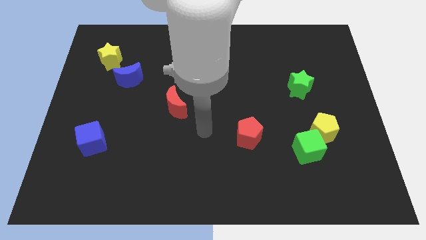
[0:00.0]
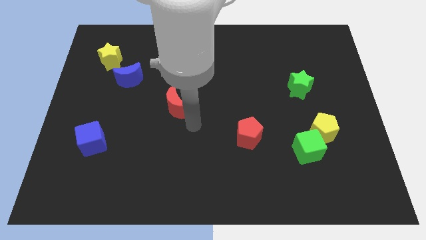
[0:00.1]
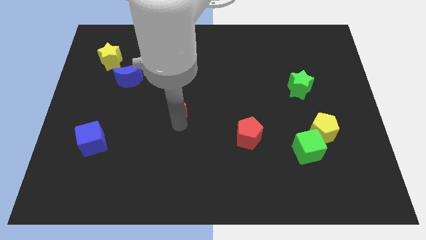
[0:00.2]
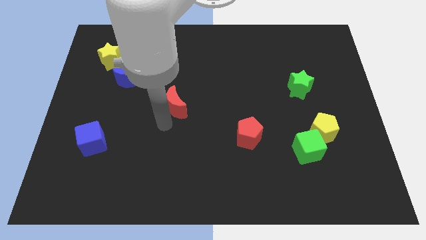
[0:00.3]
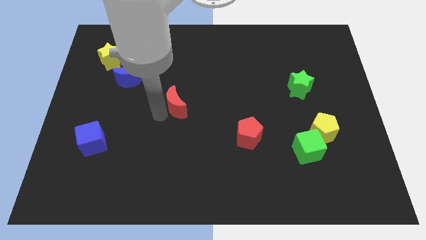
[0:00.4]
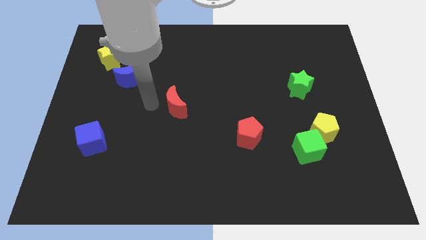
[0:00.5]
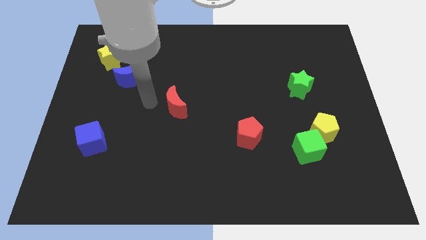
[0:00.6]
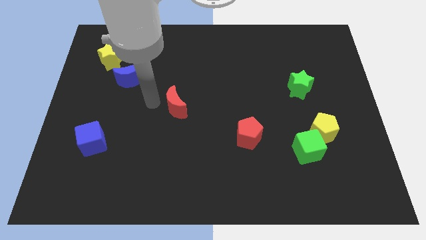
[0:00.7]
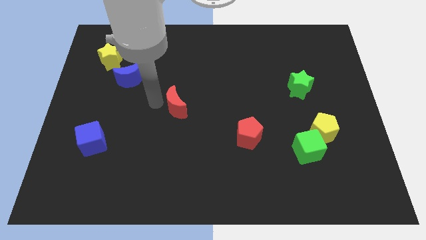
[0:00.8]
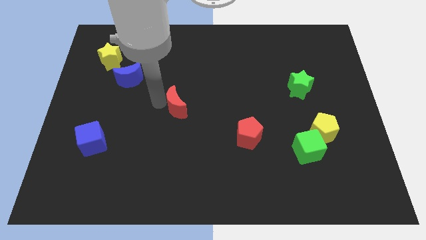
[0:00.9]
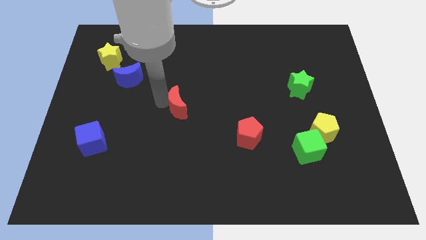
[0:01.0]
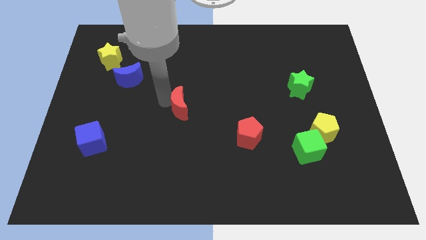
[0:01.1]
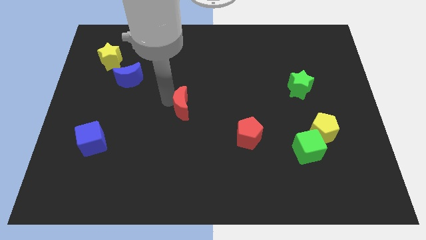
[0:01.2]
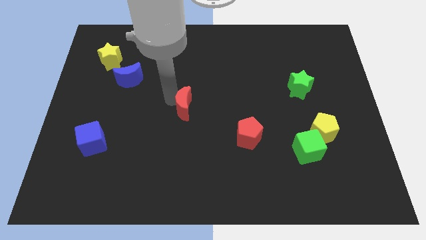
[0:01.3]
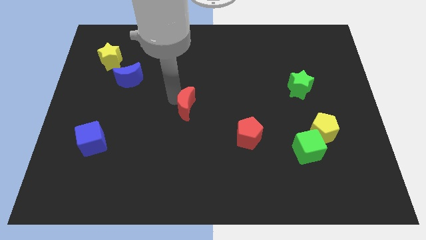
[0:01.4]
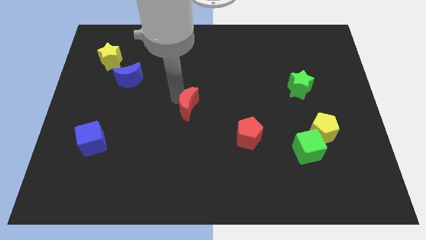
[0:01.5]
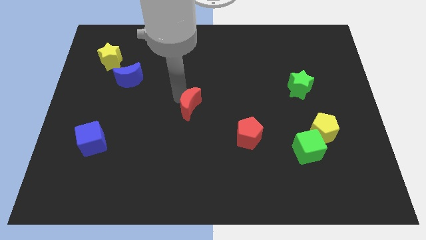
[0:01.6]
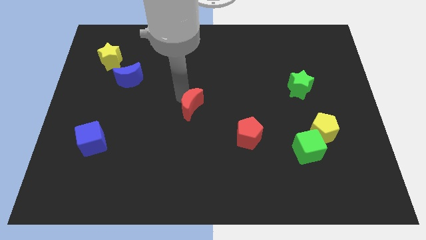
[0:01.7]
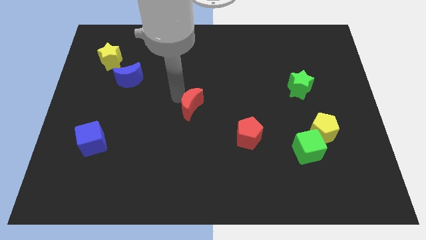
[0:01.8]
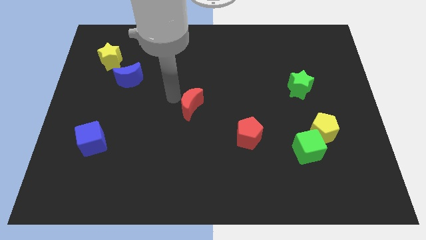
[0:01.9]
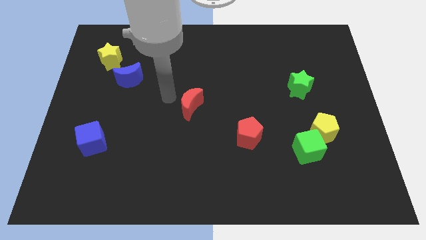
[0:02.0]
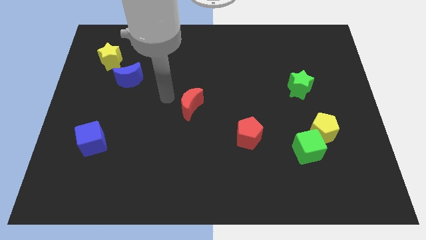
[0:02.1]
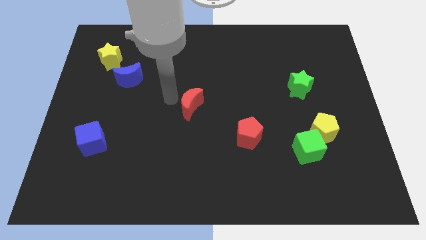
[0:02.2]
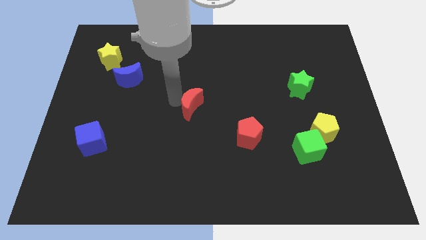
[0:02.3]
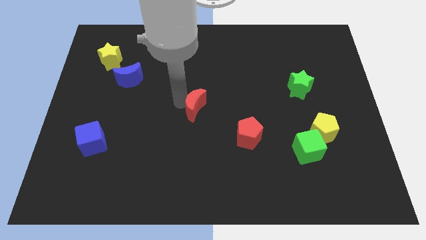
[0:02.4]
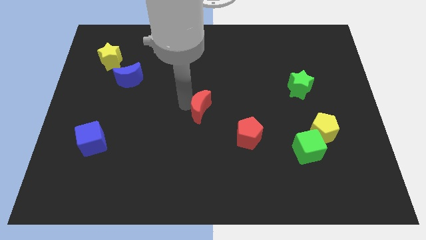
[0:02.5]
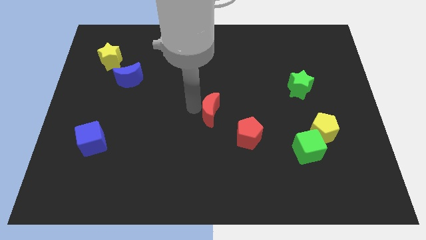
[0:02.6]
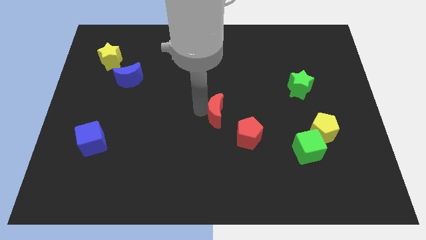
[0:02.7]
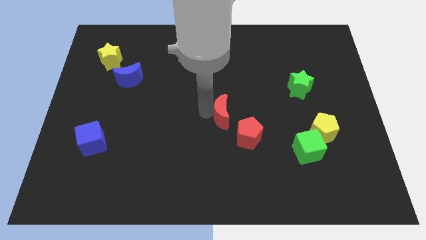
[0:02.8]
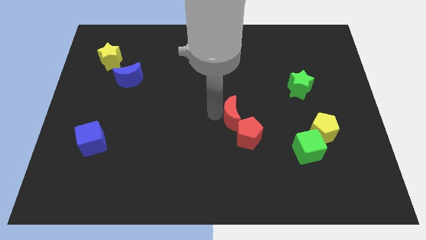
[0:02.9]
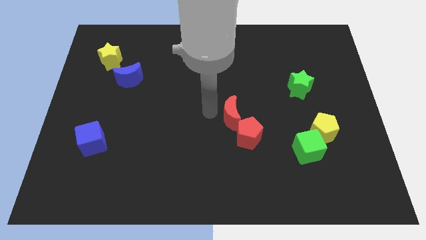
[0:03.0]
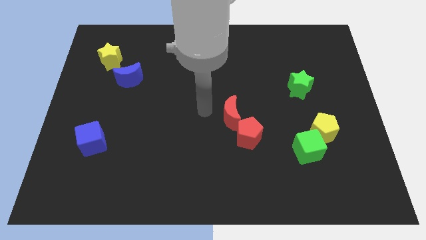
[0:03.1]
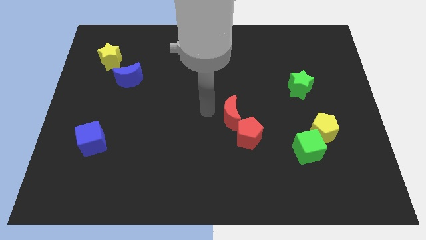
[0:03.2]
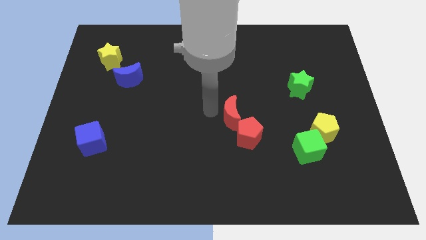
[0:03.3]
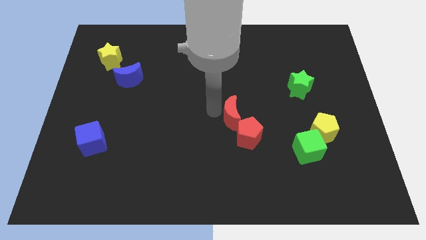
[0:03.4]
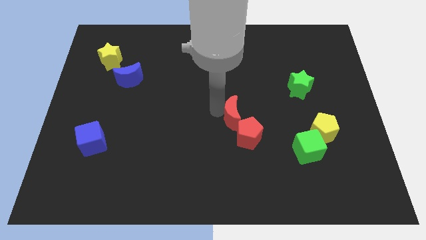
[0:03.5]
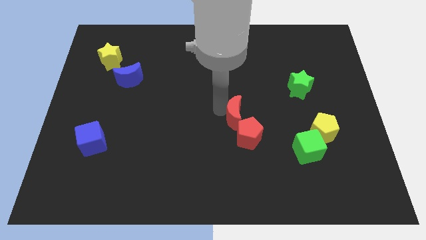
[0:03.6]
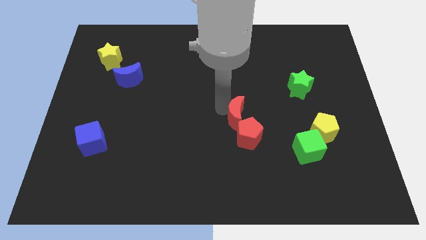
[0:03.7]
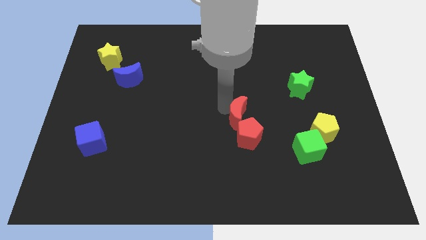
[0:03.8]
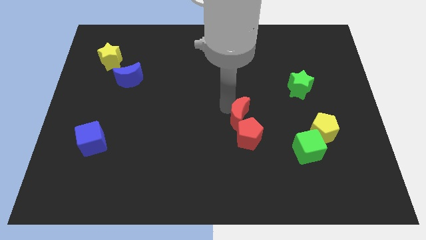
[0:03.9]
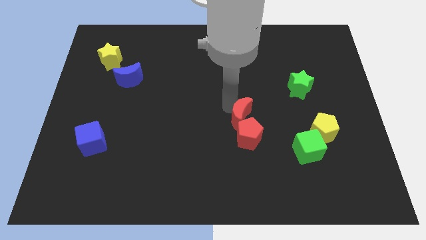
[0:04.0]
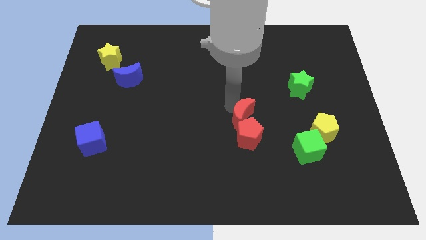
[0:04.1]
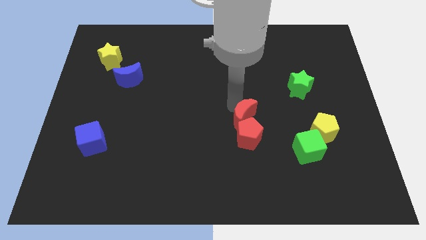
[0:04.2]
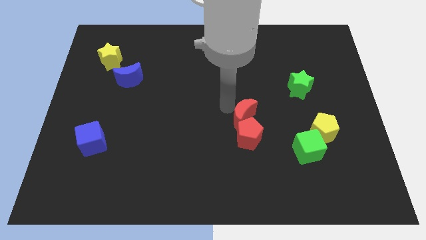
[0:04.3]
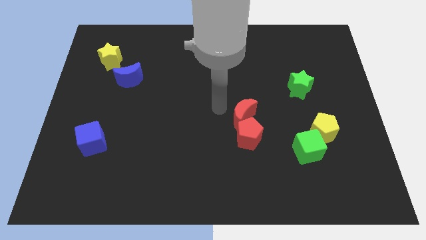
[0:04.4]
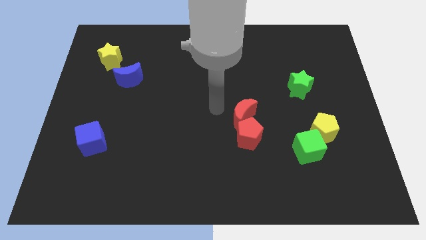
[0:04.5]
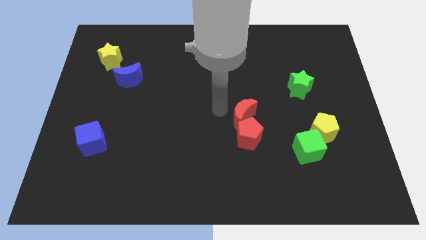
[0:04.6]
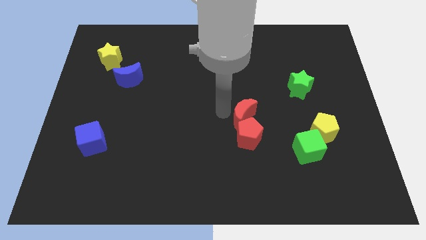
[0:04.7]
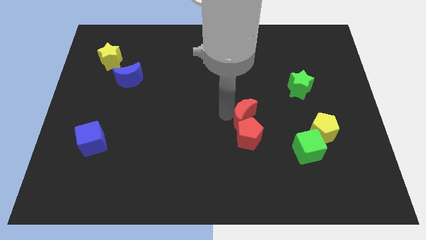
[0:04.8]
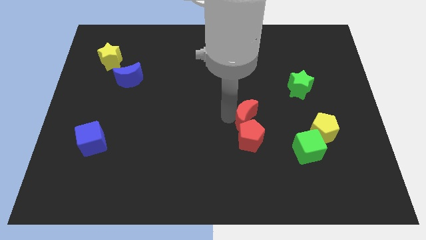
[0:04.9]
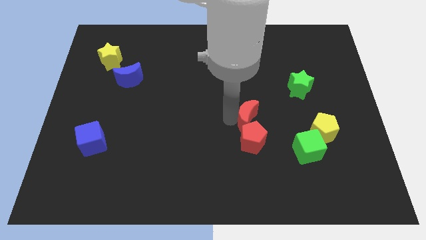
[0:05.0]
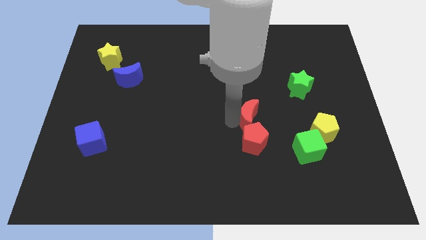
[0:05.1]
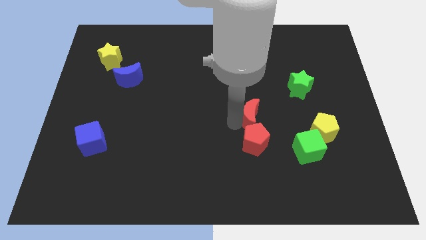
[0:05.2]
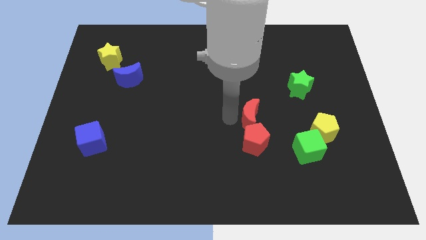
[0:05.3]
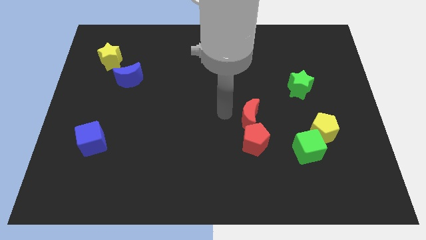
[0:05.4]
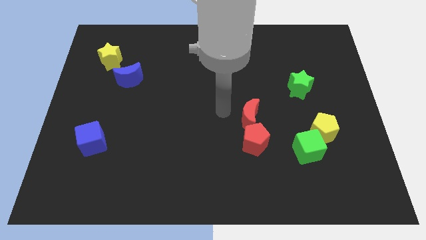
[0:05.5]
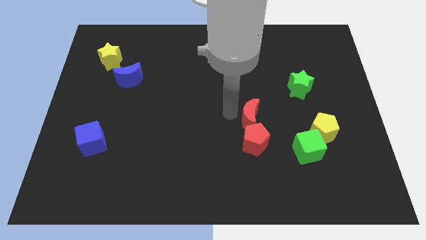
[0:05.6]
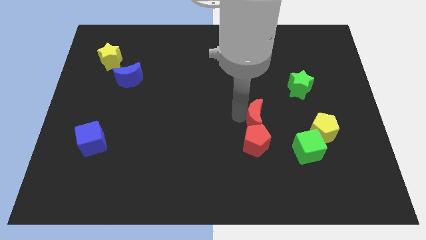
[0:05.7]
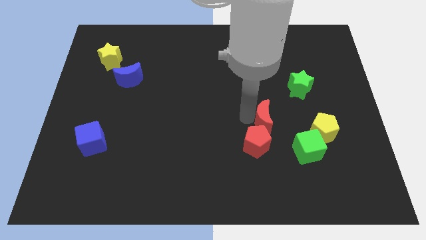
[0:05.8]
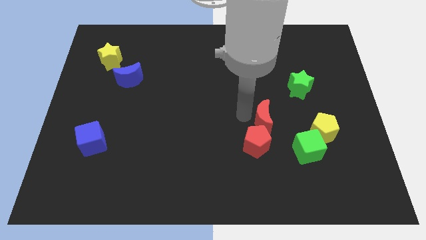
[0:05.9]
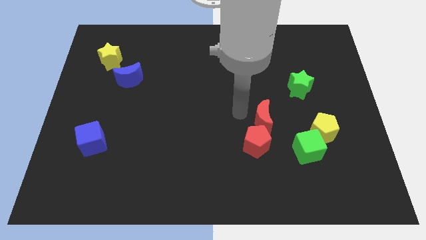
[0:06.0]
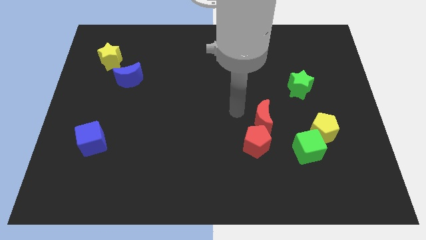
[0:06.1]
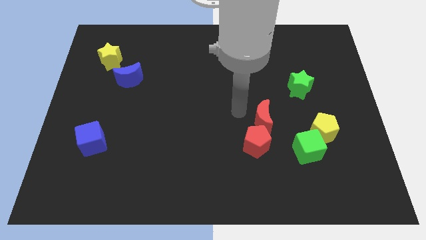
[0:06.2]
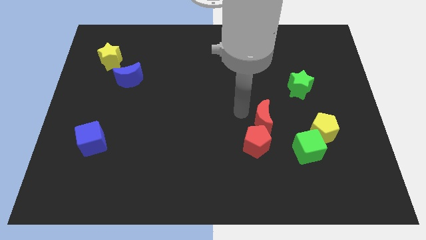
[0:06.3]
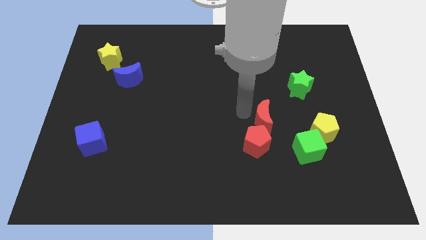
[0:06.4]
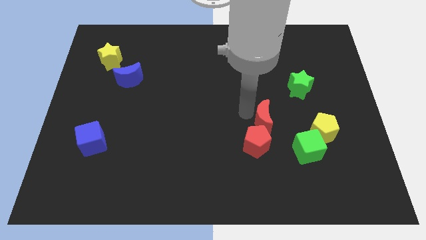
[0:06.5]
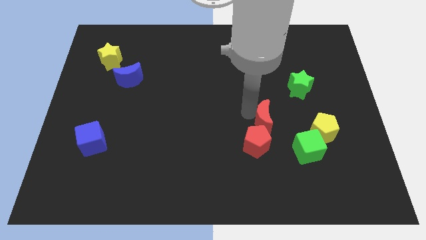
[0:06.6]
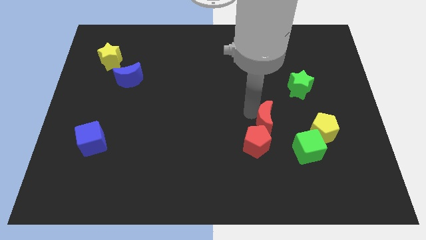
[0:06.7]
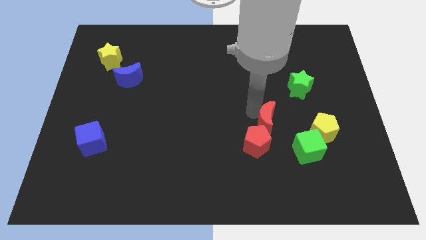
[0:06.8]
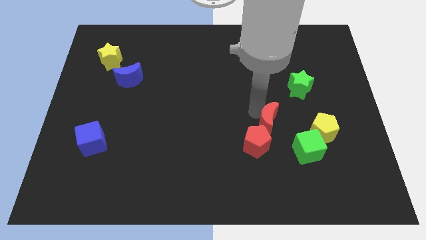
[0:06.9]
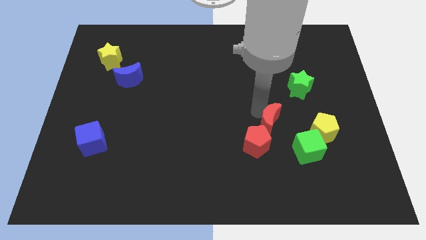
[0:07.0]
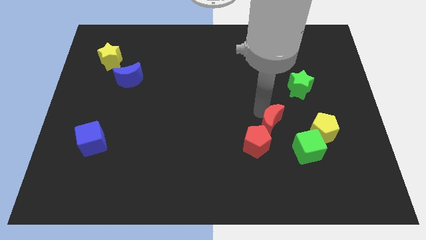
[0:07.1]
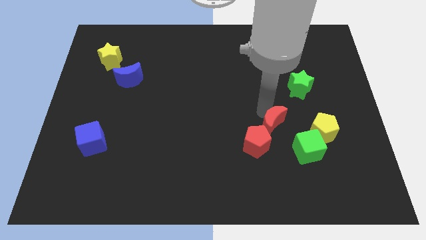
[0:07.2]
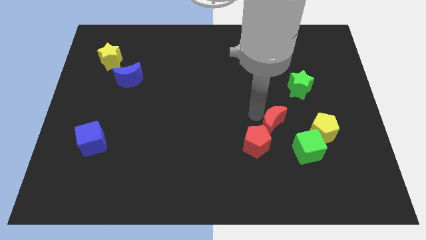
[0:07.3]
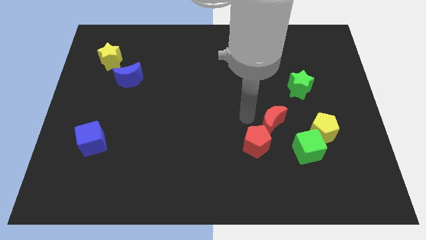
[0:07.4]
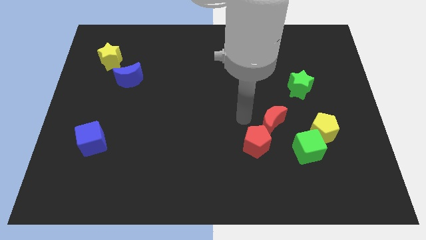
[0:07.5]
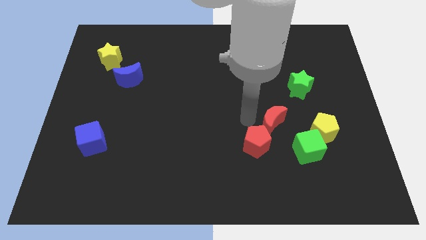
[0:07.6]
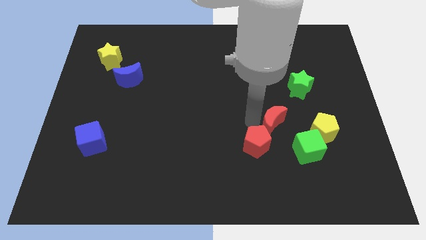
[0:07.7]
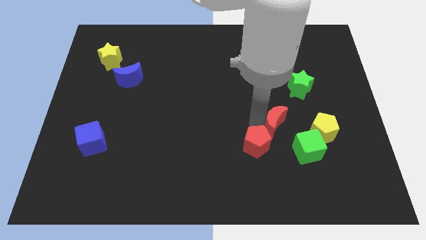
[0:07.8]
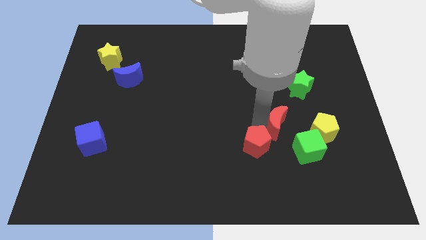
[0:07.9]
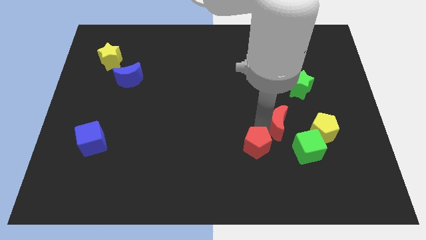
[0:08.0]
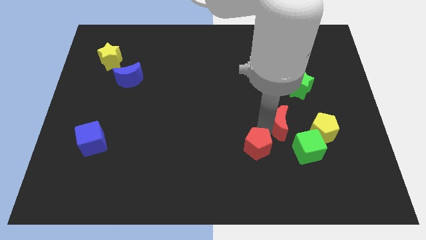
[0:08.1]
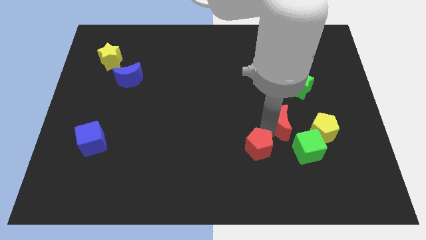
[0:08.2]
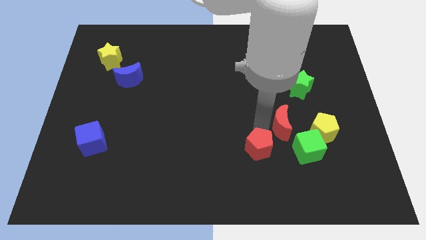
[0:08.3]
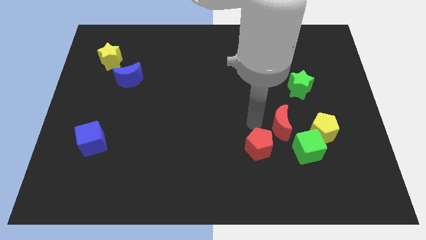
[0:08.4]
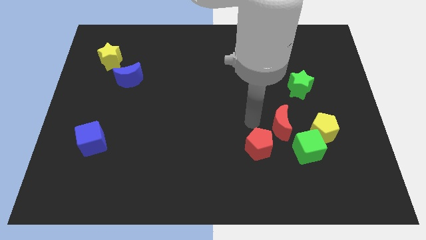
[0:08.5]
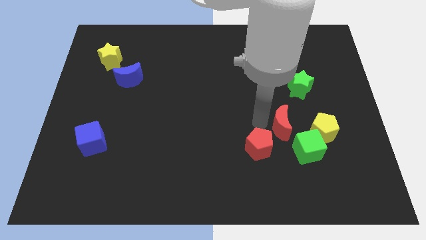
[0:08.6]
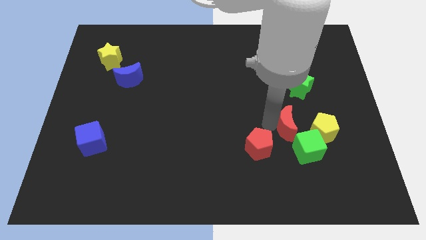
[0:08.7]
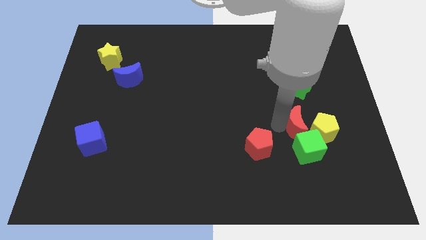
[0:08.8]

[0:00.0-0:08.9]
slide the red moon to the yellow pentagon
